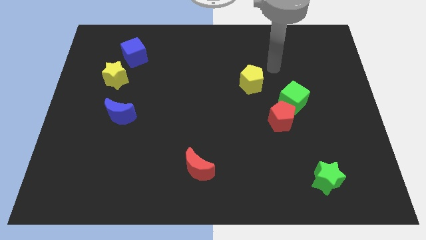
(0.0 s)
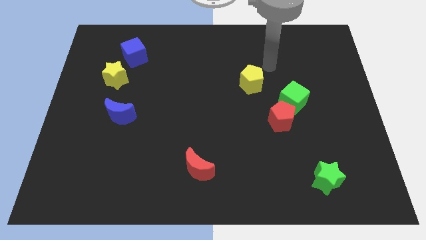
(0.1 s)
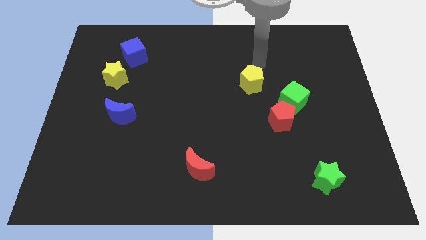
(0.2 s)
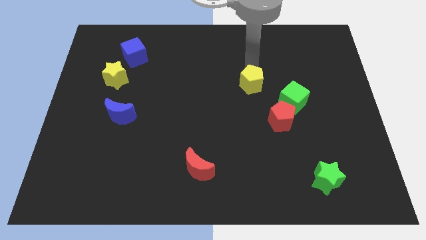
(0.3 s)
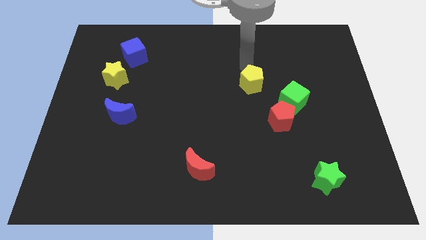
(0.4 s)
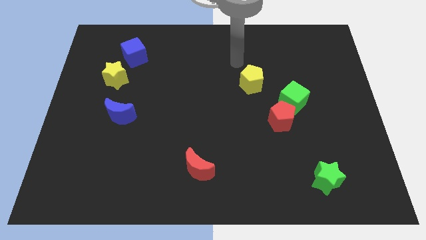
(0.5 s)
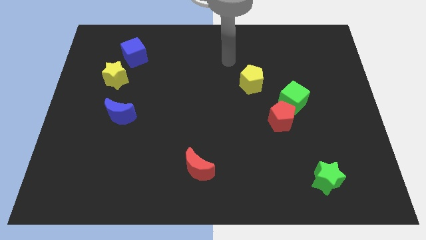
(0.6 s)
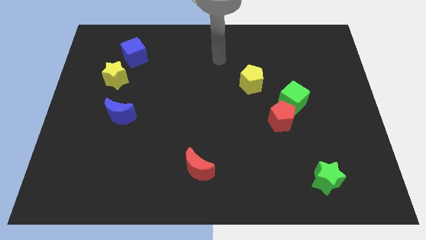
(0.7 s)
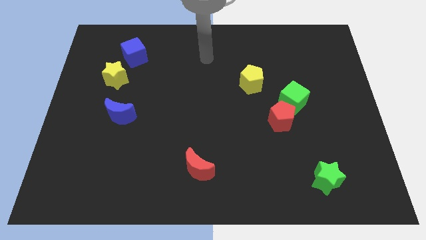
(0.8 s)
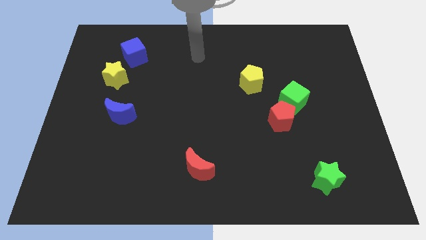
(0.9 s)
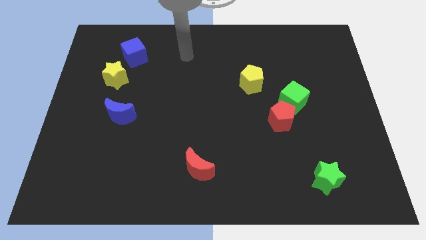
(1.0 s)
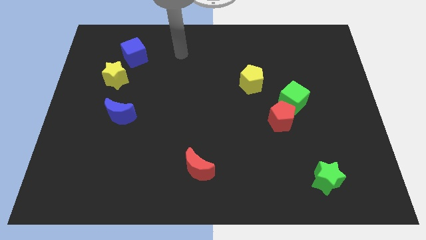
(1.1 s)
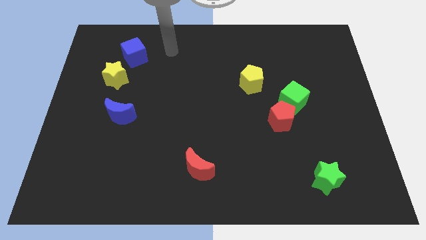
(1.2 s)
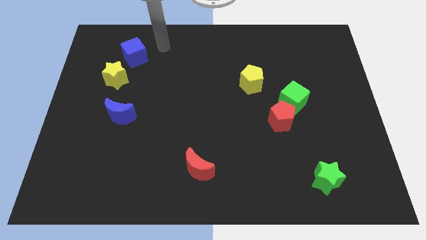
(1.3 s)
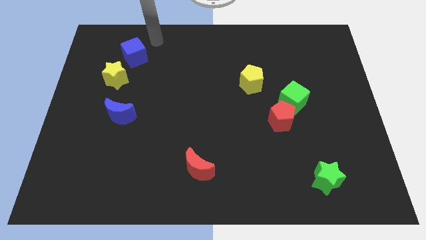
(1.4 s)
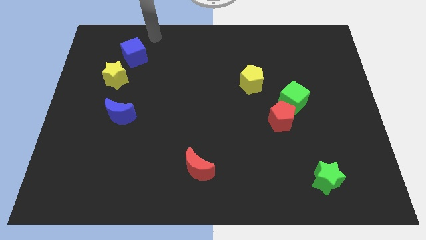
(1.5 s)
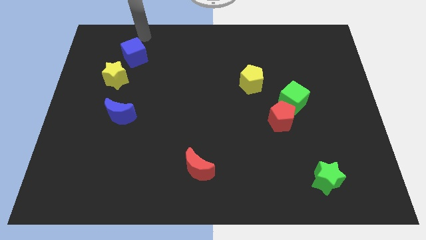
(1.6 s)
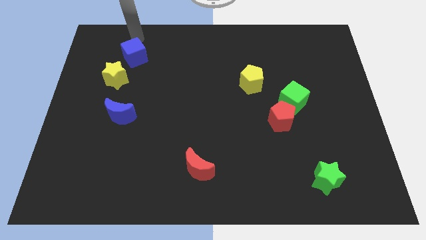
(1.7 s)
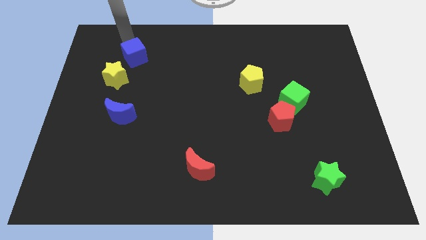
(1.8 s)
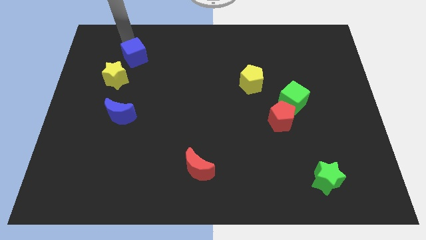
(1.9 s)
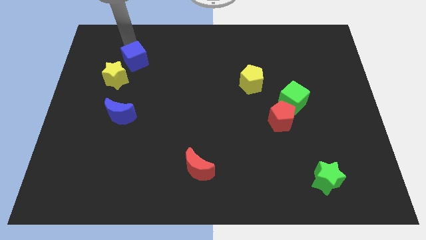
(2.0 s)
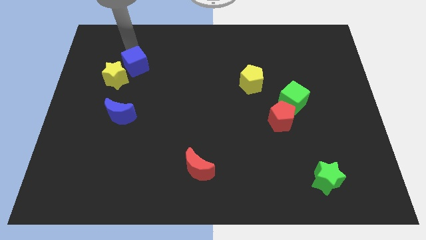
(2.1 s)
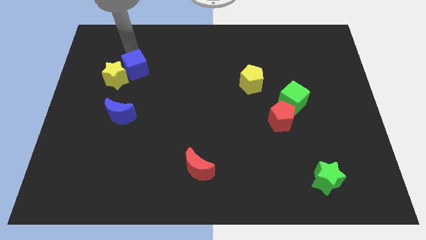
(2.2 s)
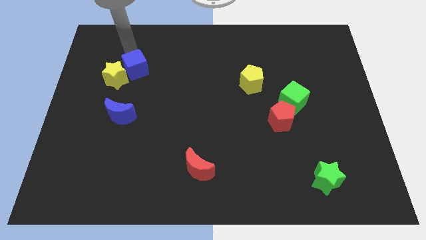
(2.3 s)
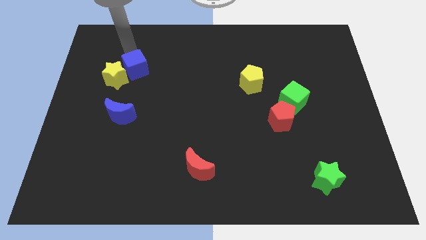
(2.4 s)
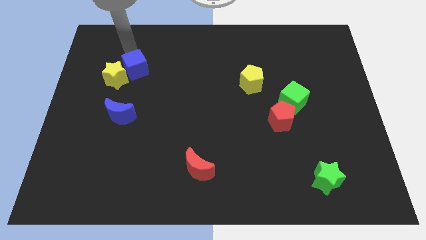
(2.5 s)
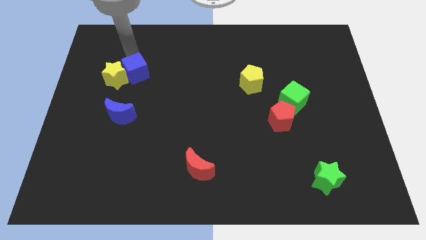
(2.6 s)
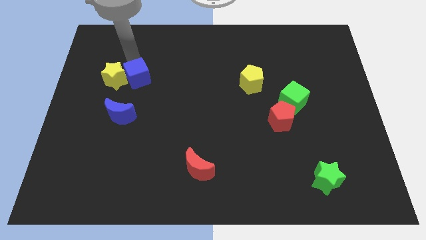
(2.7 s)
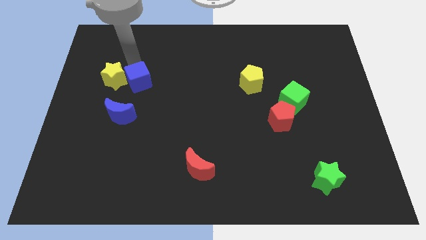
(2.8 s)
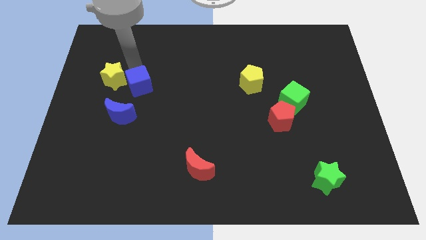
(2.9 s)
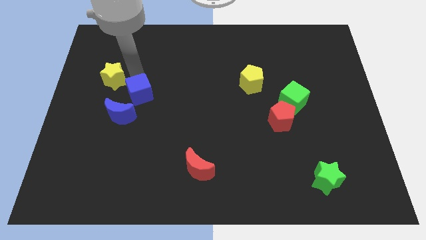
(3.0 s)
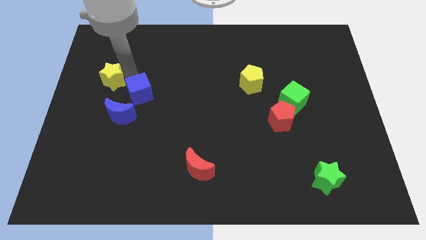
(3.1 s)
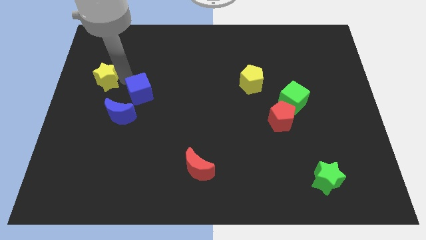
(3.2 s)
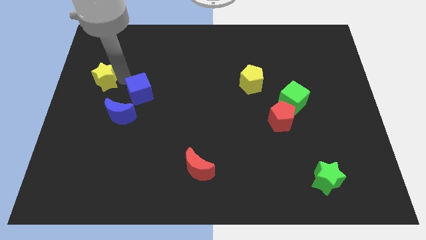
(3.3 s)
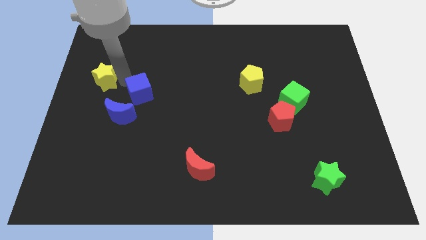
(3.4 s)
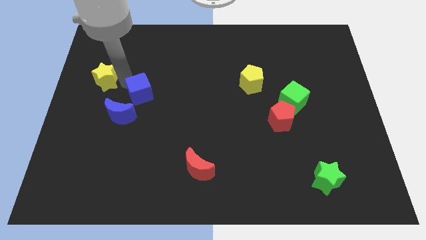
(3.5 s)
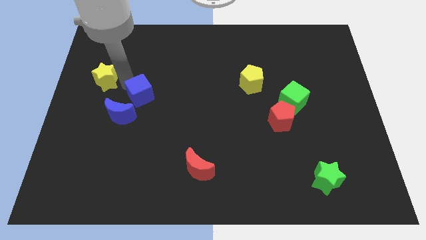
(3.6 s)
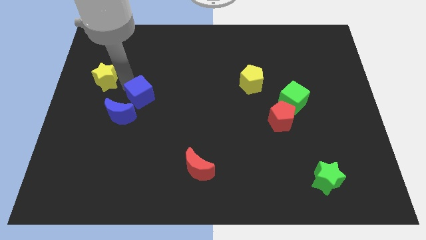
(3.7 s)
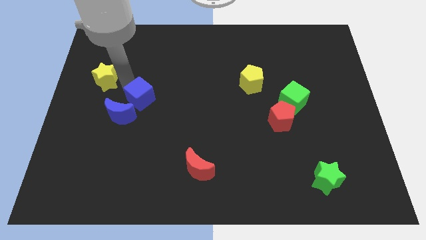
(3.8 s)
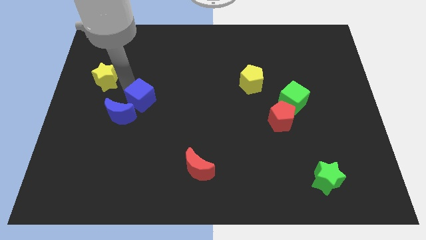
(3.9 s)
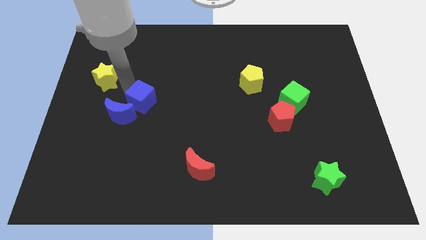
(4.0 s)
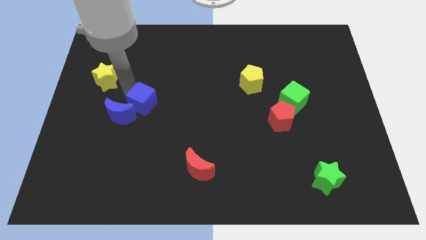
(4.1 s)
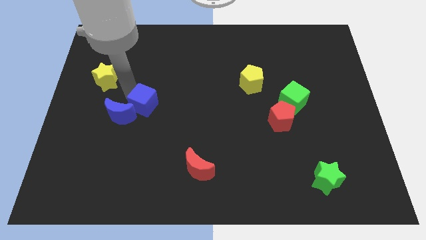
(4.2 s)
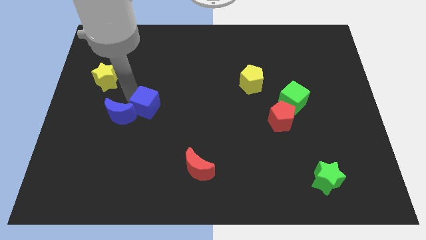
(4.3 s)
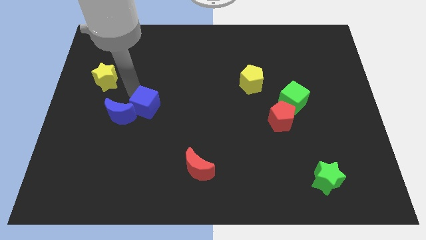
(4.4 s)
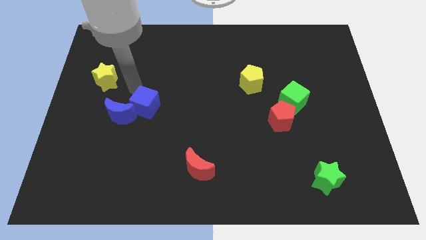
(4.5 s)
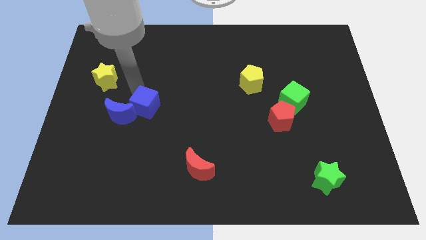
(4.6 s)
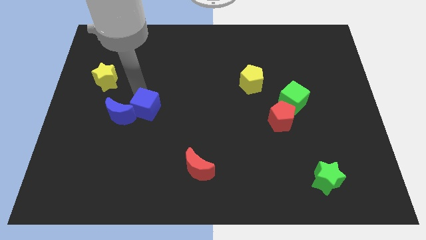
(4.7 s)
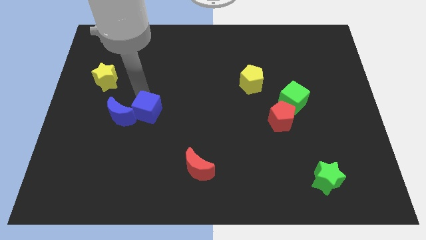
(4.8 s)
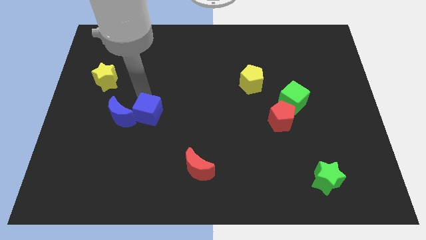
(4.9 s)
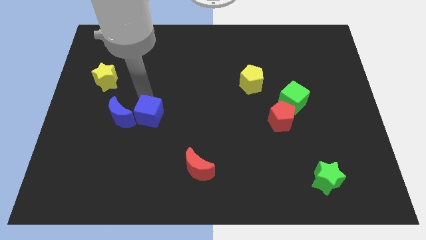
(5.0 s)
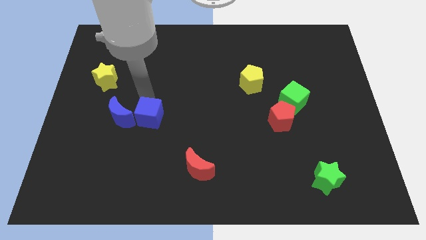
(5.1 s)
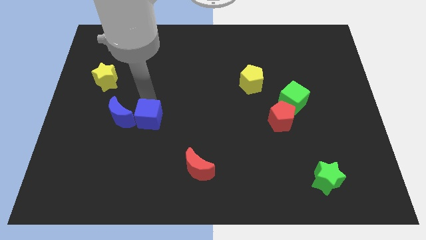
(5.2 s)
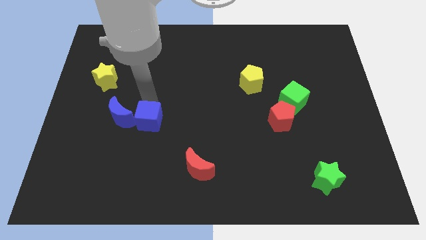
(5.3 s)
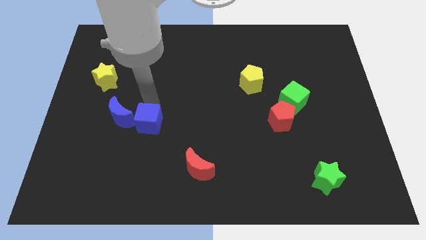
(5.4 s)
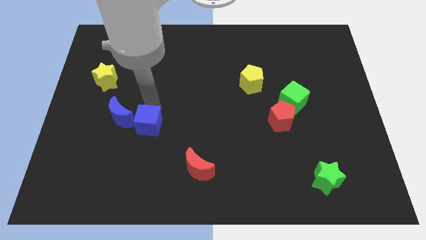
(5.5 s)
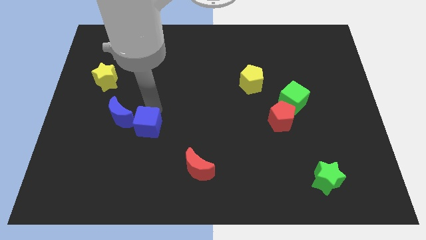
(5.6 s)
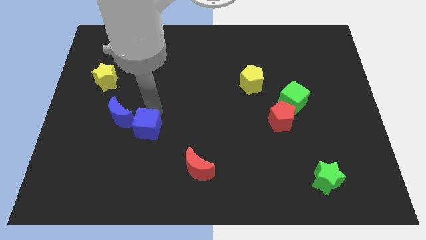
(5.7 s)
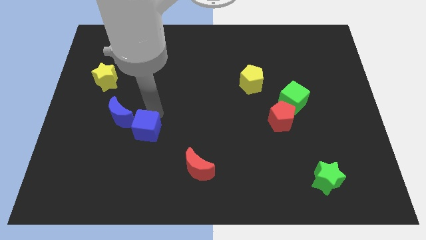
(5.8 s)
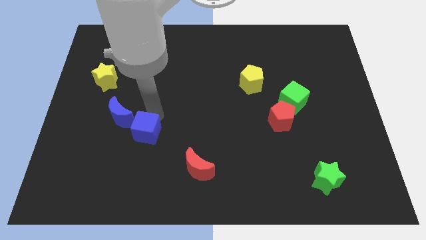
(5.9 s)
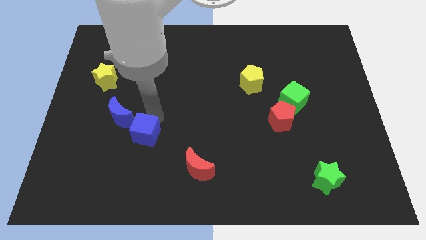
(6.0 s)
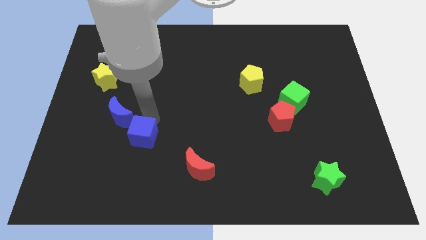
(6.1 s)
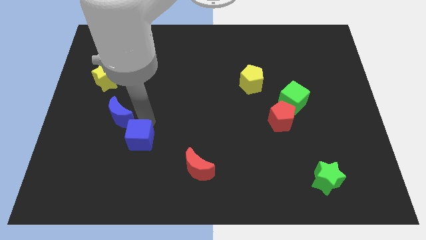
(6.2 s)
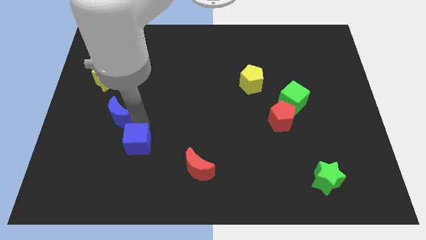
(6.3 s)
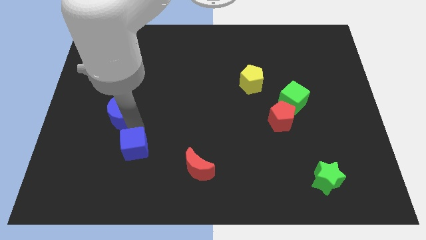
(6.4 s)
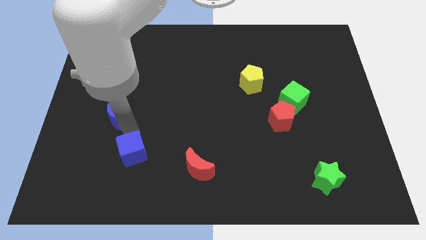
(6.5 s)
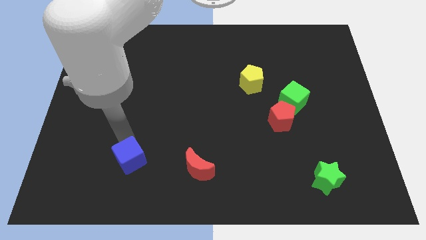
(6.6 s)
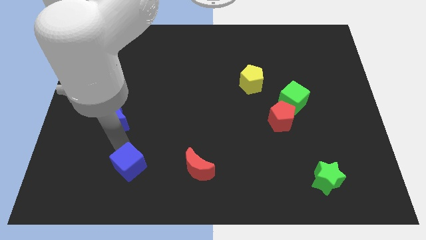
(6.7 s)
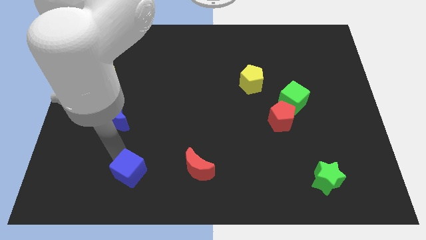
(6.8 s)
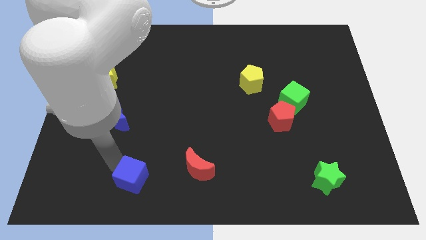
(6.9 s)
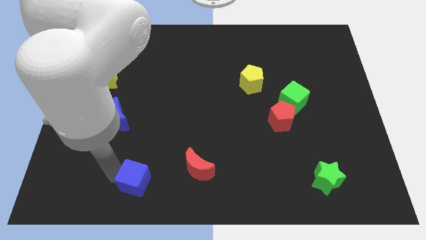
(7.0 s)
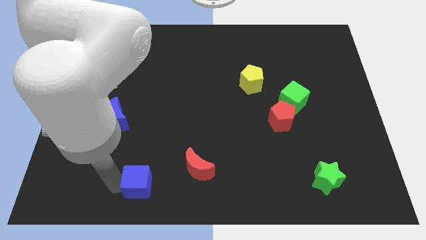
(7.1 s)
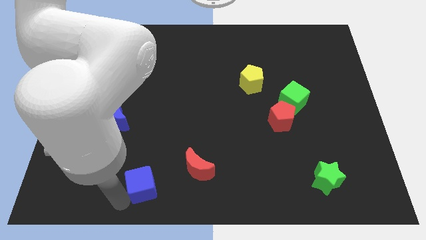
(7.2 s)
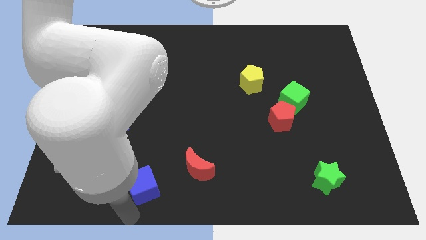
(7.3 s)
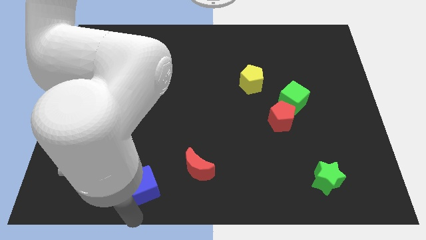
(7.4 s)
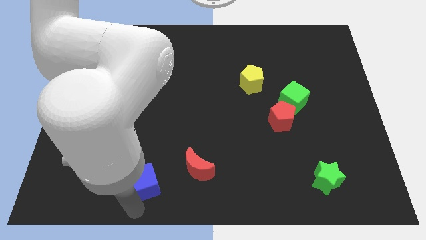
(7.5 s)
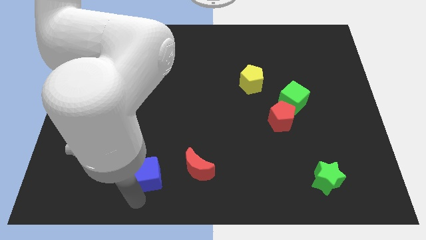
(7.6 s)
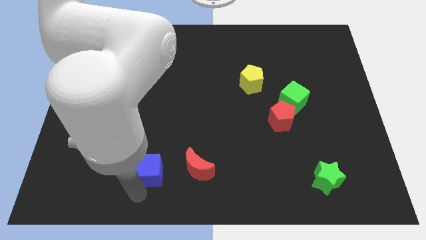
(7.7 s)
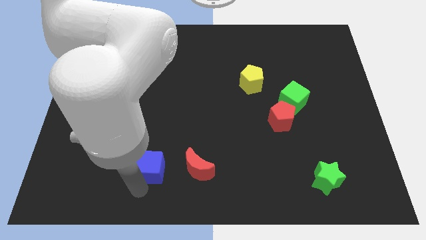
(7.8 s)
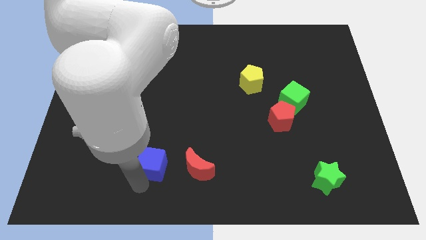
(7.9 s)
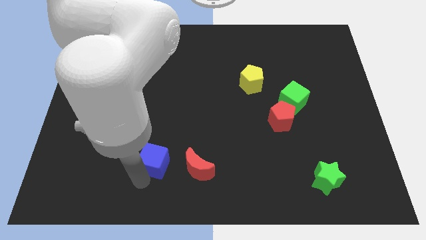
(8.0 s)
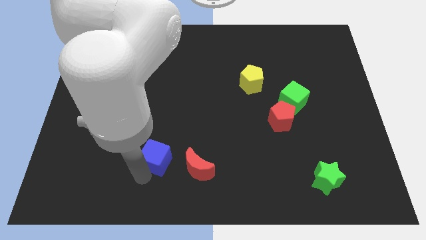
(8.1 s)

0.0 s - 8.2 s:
slide the blue cube to the top left of the red moon
